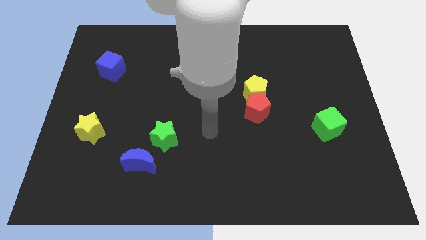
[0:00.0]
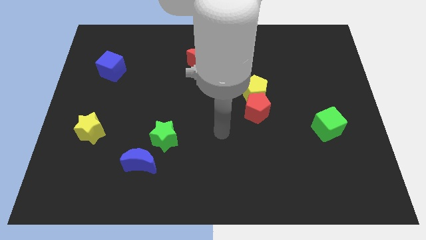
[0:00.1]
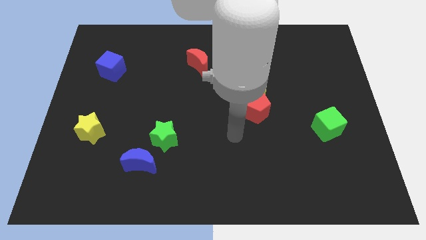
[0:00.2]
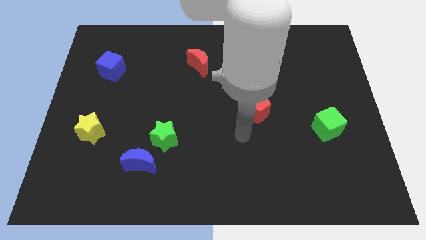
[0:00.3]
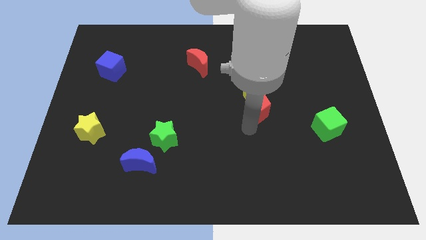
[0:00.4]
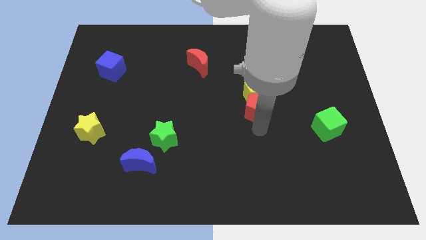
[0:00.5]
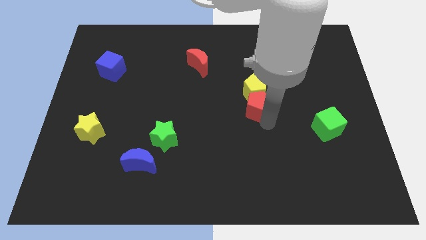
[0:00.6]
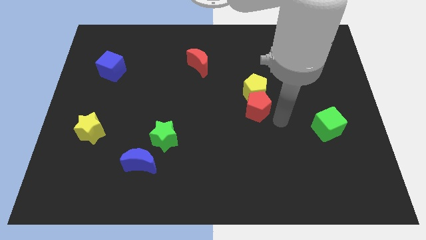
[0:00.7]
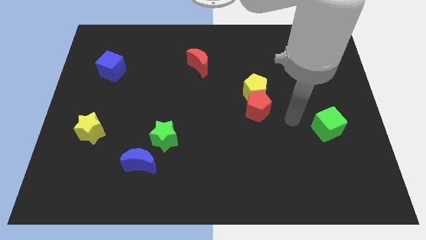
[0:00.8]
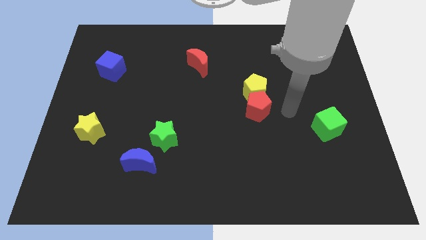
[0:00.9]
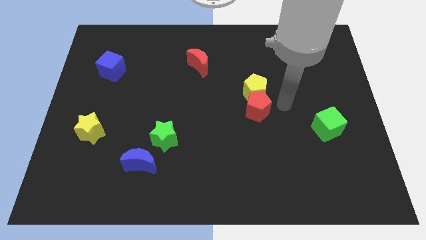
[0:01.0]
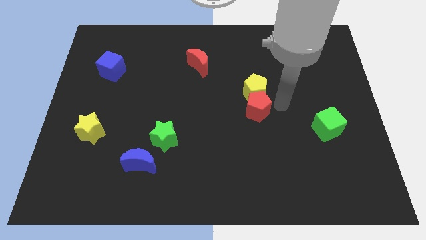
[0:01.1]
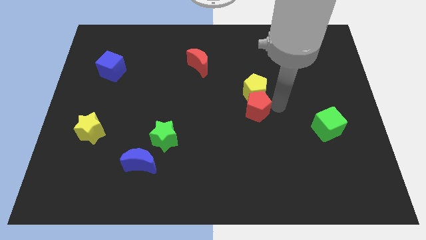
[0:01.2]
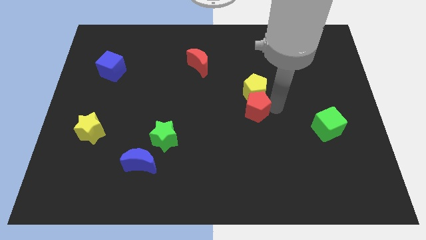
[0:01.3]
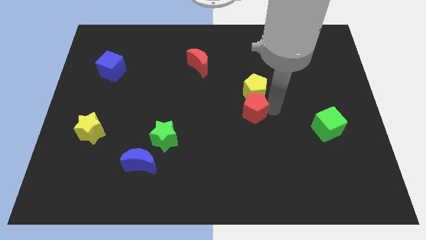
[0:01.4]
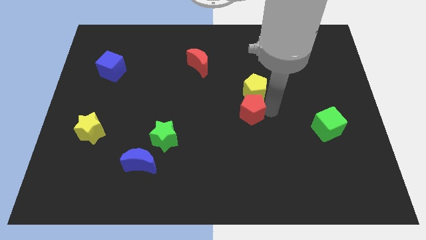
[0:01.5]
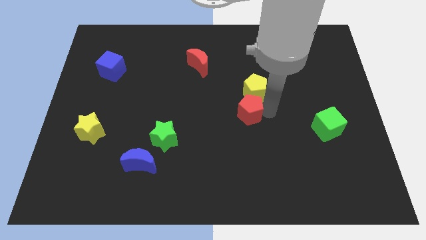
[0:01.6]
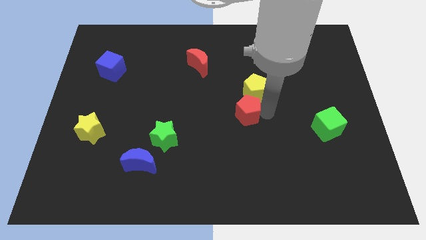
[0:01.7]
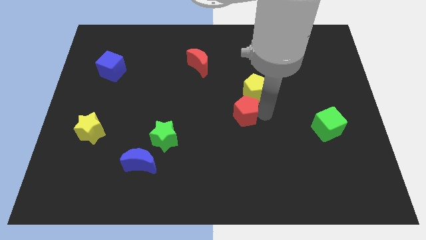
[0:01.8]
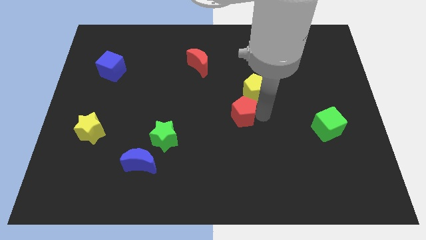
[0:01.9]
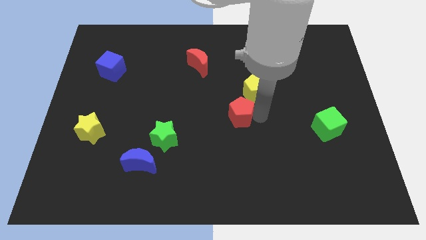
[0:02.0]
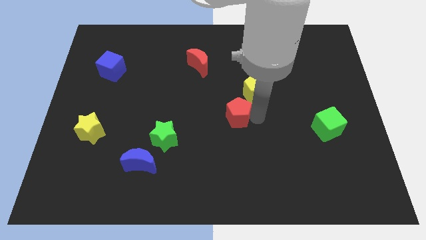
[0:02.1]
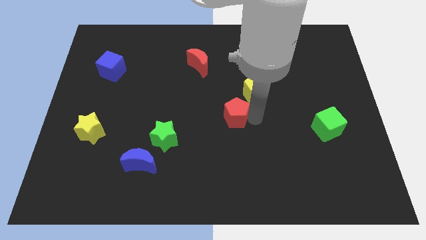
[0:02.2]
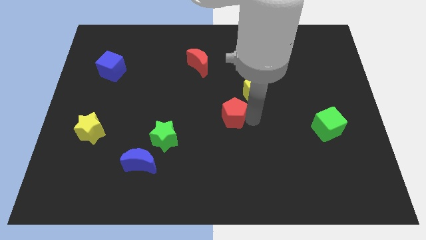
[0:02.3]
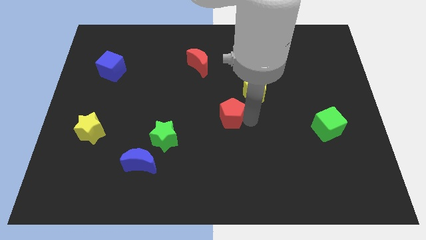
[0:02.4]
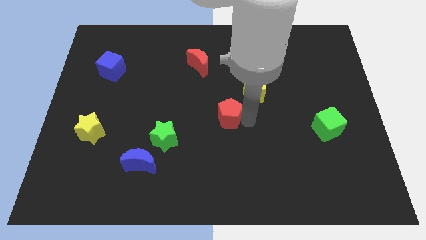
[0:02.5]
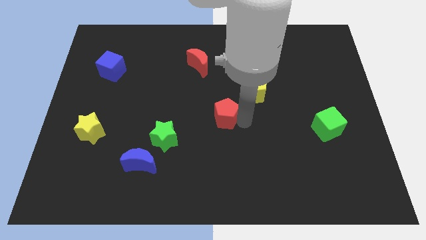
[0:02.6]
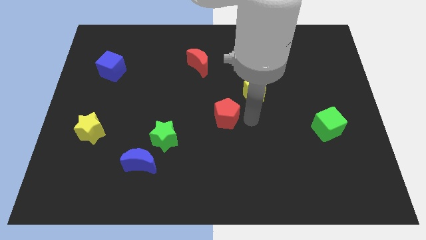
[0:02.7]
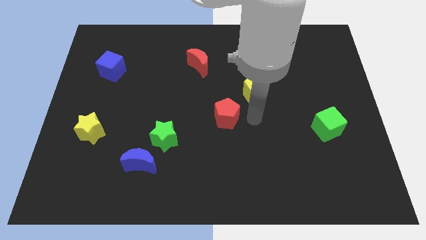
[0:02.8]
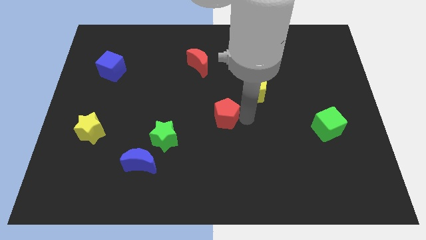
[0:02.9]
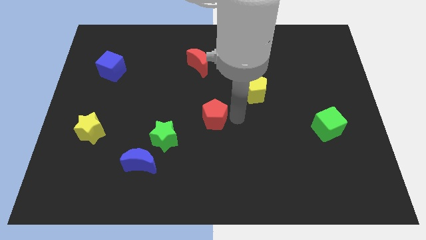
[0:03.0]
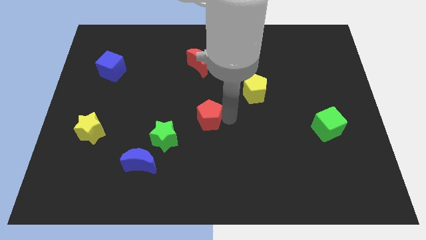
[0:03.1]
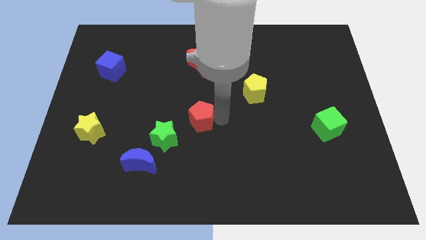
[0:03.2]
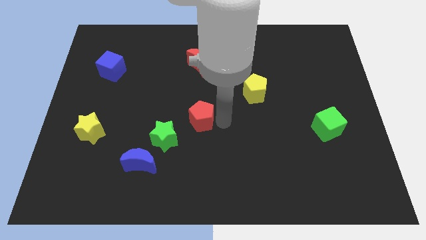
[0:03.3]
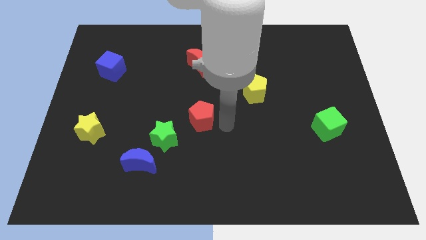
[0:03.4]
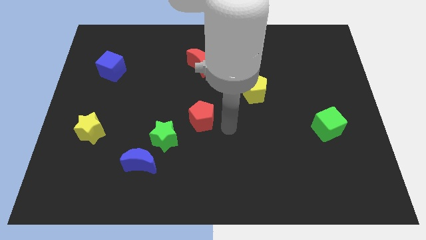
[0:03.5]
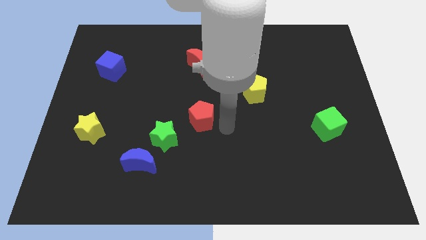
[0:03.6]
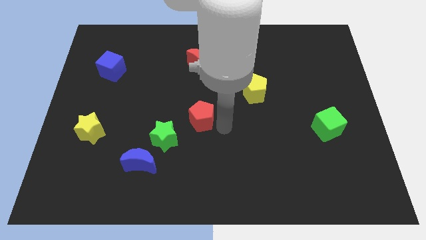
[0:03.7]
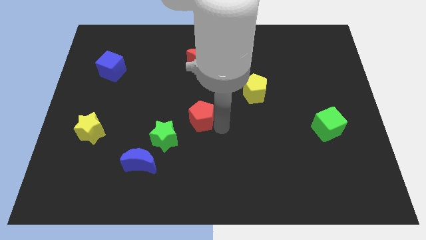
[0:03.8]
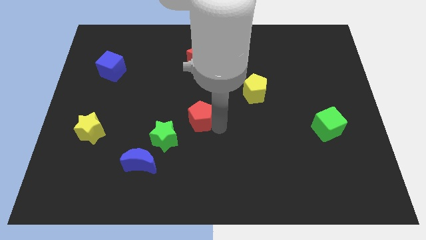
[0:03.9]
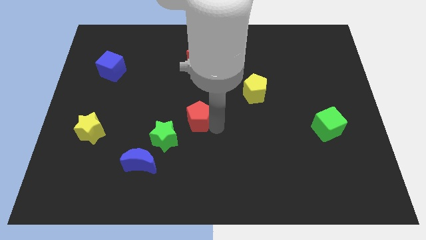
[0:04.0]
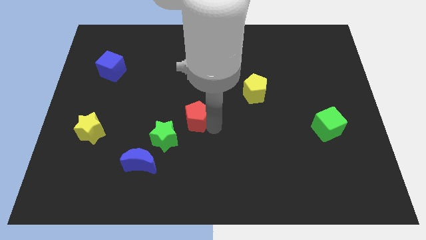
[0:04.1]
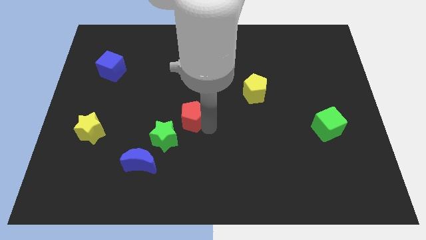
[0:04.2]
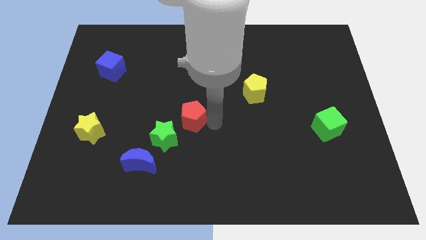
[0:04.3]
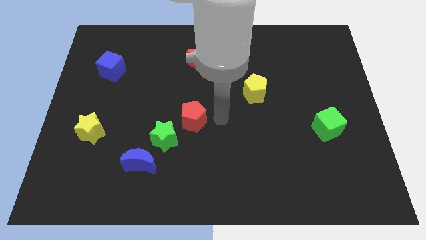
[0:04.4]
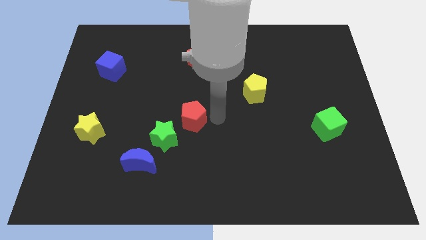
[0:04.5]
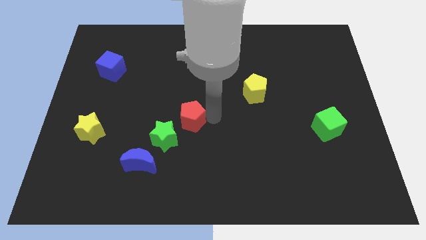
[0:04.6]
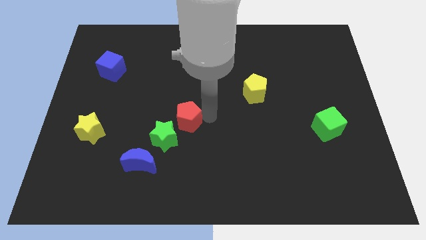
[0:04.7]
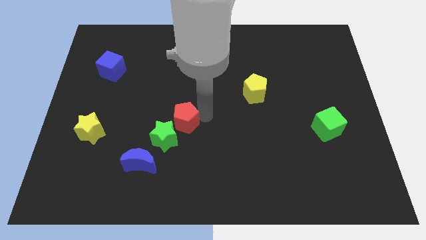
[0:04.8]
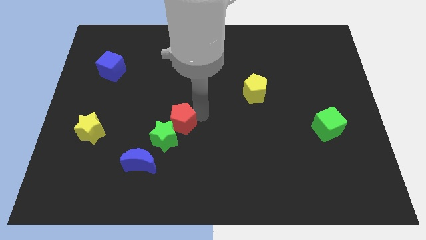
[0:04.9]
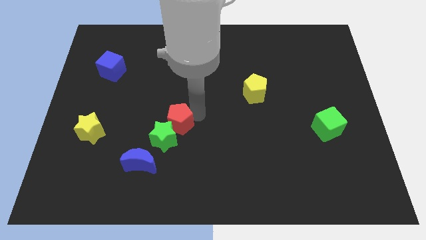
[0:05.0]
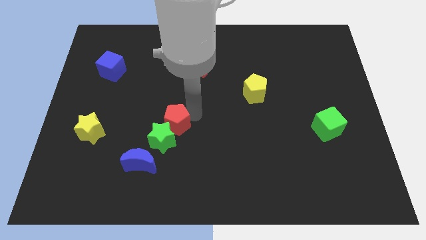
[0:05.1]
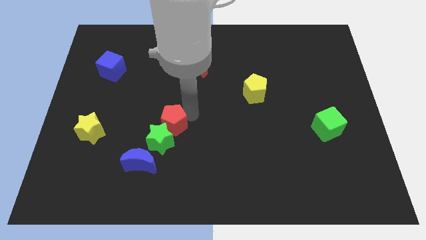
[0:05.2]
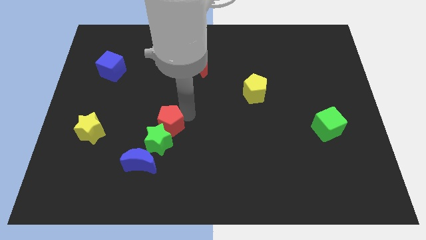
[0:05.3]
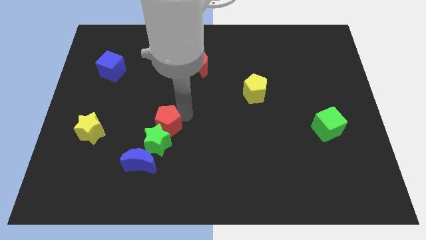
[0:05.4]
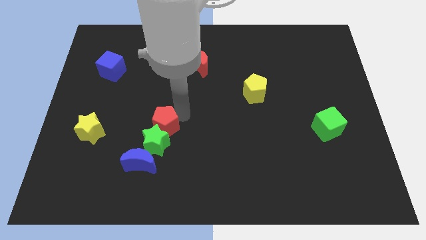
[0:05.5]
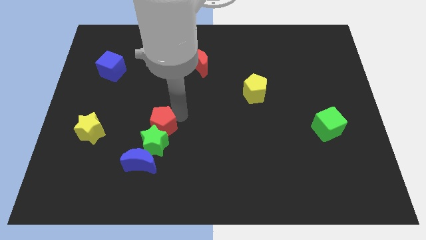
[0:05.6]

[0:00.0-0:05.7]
push the red pentagon to the right of the yellow star

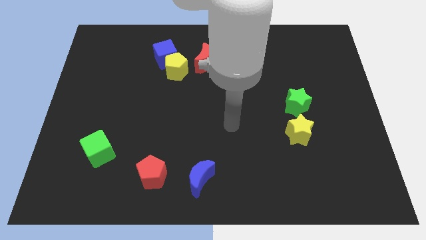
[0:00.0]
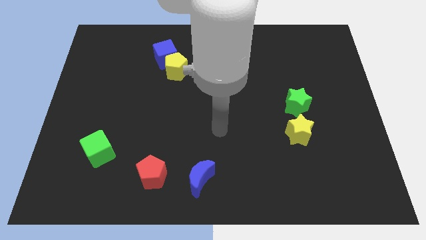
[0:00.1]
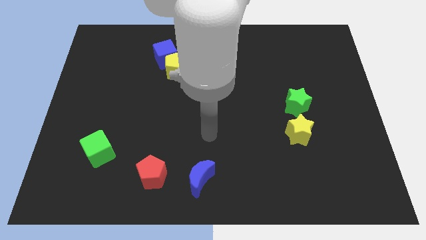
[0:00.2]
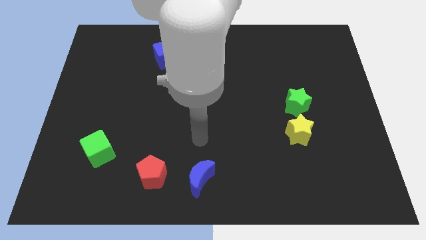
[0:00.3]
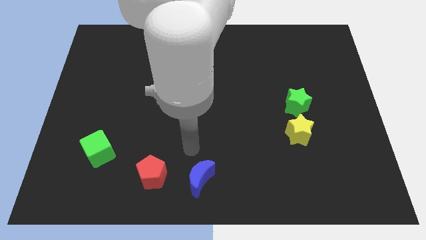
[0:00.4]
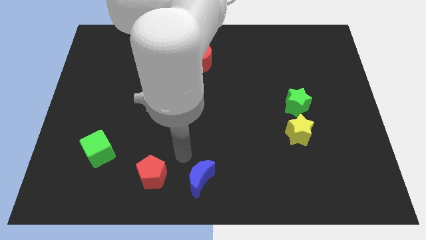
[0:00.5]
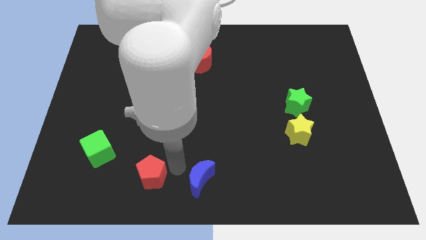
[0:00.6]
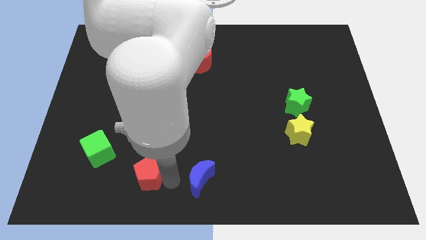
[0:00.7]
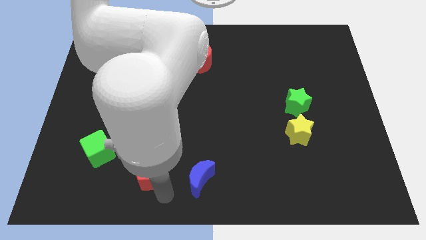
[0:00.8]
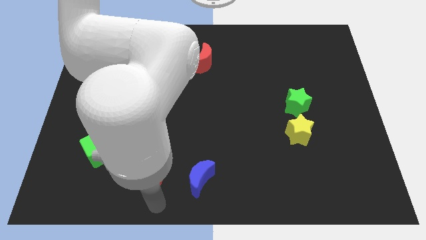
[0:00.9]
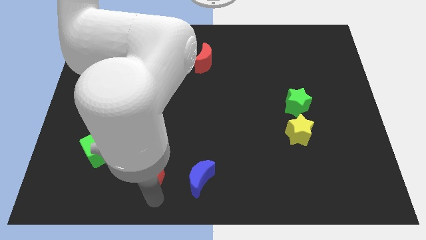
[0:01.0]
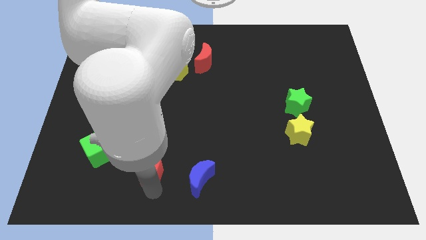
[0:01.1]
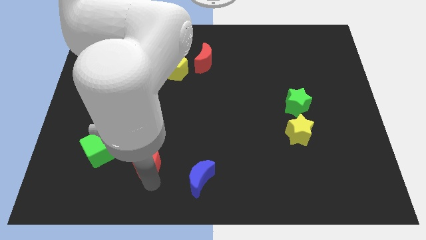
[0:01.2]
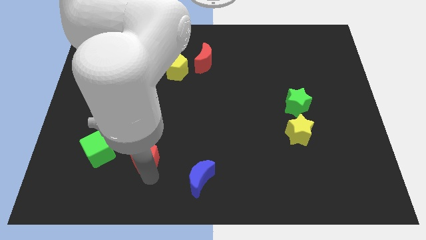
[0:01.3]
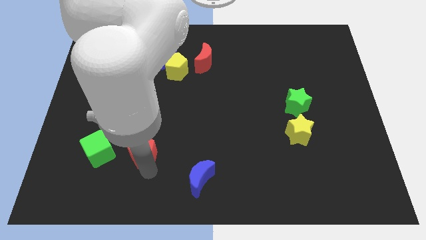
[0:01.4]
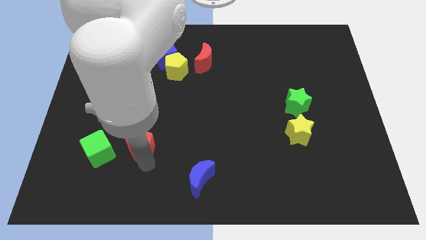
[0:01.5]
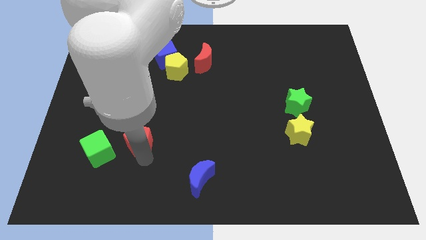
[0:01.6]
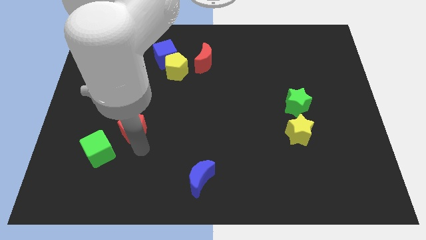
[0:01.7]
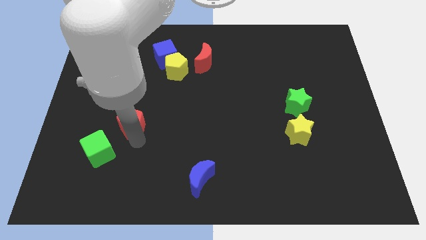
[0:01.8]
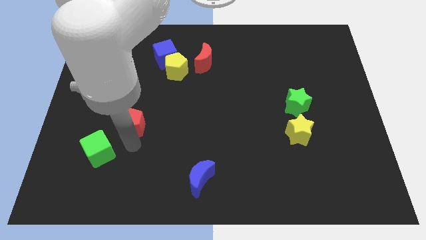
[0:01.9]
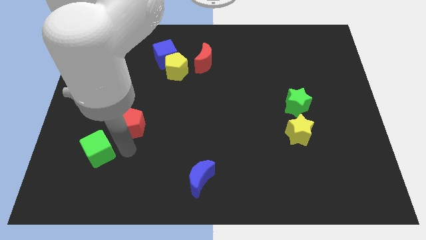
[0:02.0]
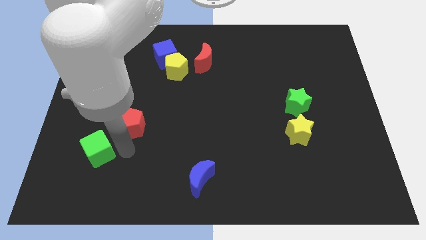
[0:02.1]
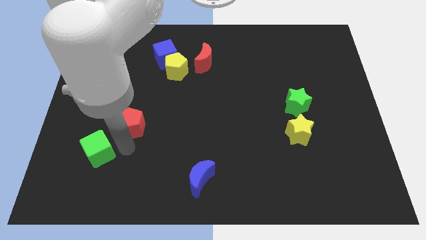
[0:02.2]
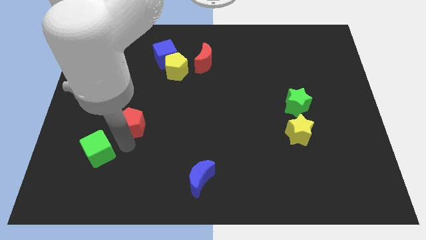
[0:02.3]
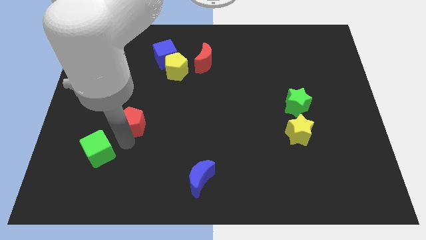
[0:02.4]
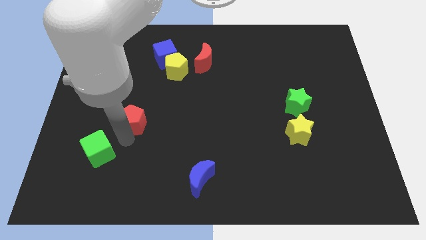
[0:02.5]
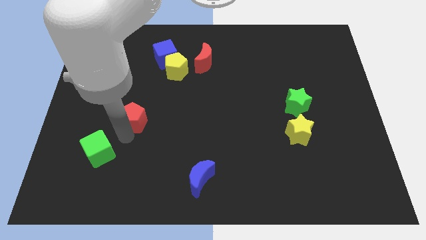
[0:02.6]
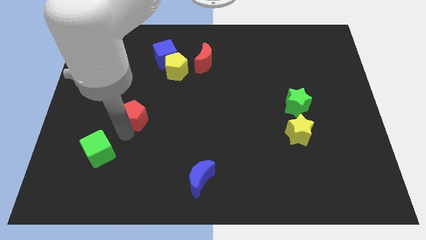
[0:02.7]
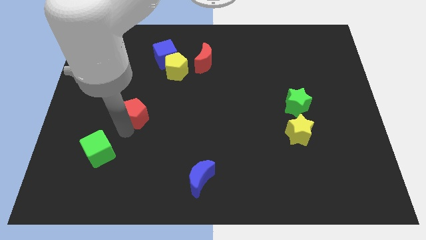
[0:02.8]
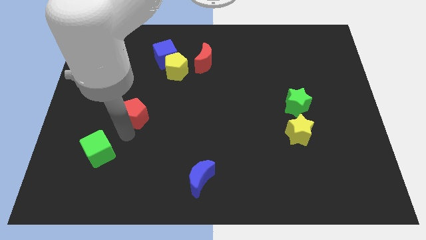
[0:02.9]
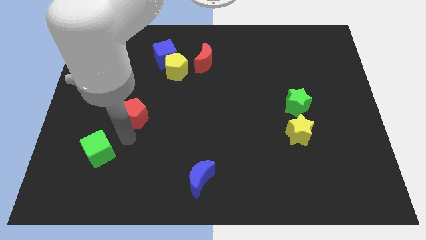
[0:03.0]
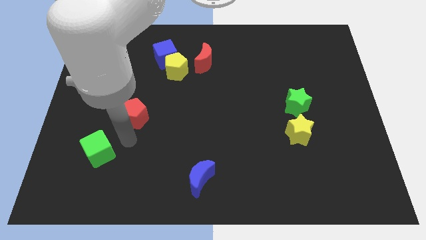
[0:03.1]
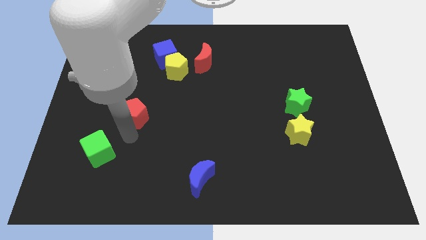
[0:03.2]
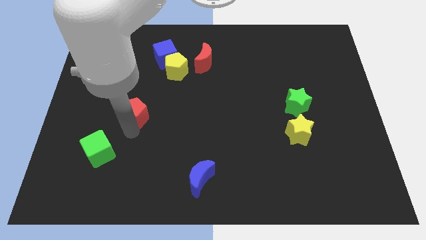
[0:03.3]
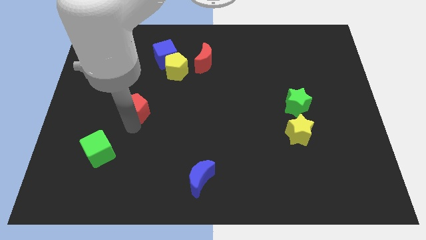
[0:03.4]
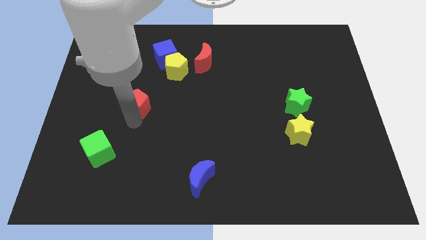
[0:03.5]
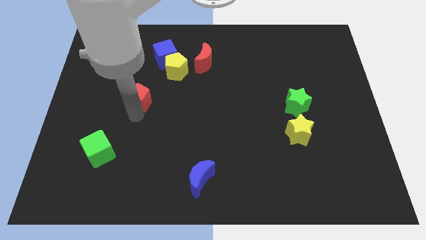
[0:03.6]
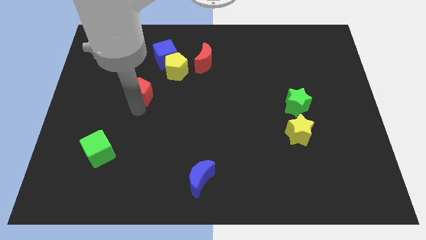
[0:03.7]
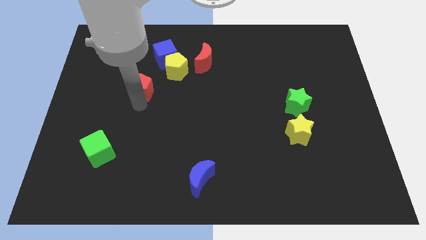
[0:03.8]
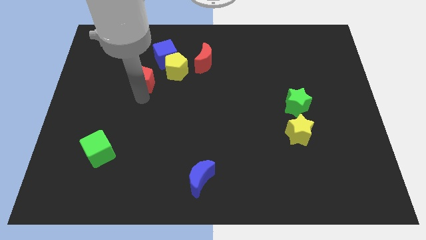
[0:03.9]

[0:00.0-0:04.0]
slide the red pentagon left of the yellow pentagon
